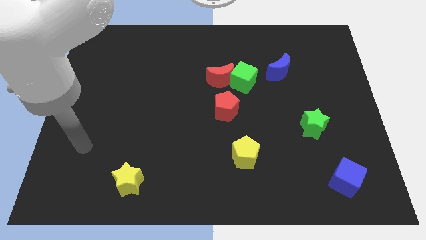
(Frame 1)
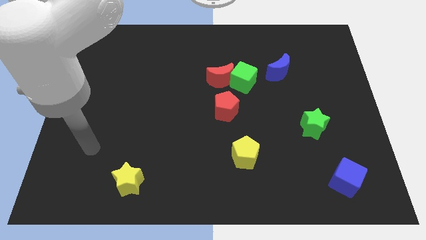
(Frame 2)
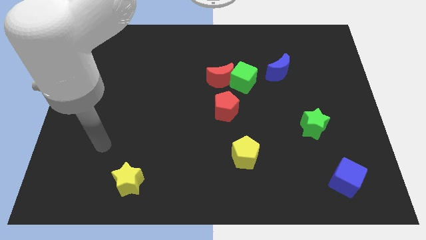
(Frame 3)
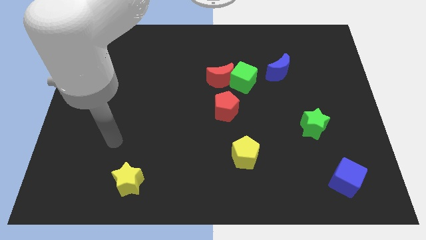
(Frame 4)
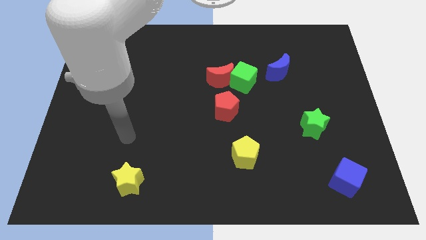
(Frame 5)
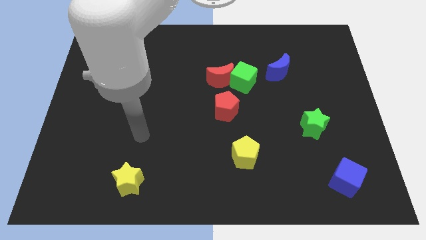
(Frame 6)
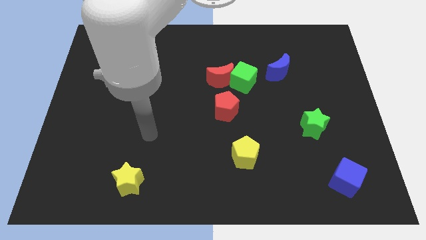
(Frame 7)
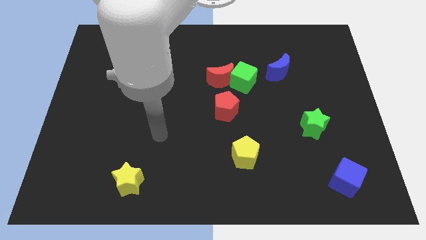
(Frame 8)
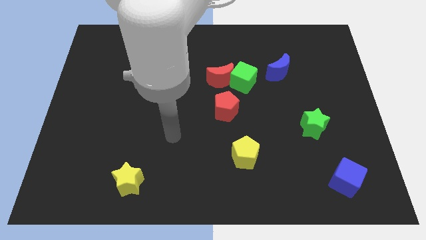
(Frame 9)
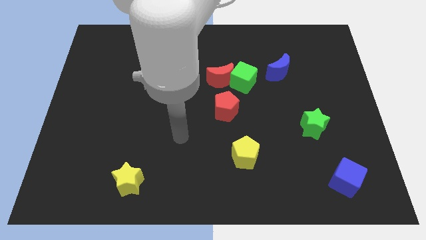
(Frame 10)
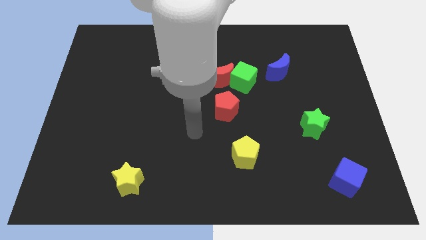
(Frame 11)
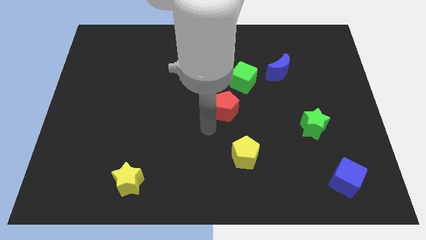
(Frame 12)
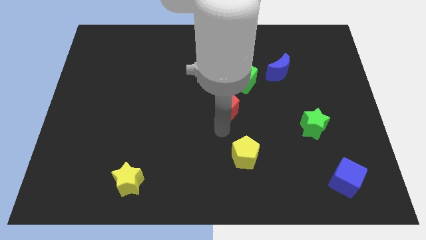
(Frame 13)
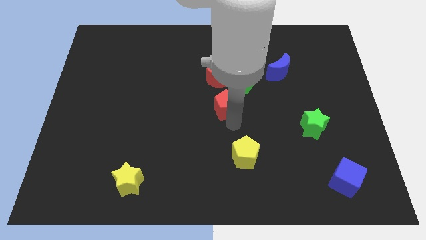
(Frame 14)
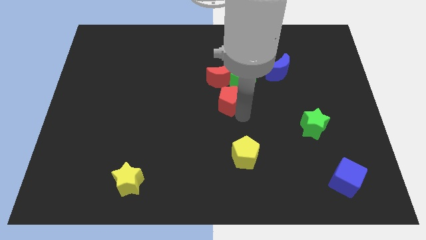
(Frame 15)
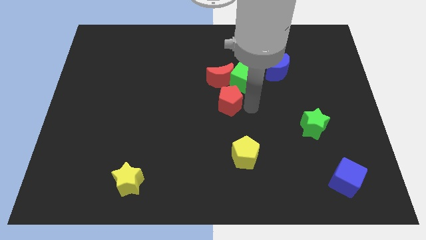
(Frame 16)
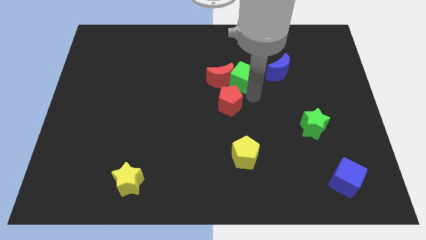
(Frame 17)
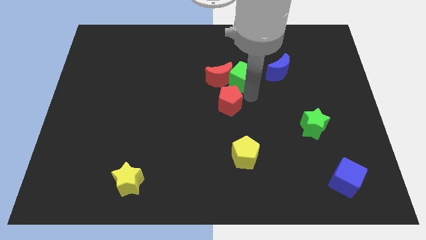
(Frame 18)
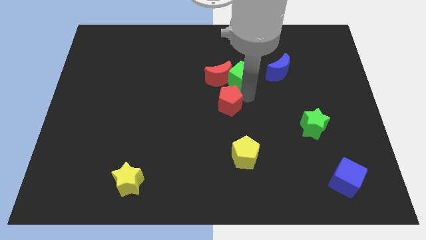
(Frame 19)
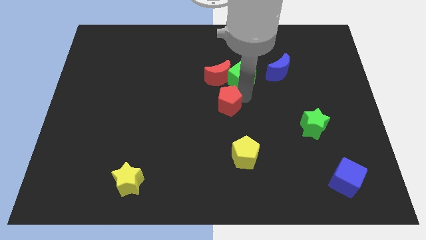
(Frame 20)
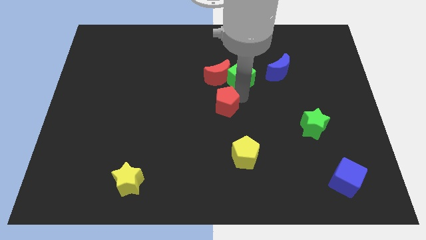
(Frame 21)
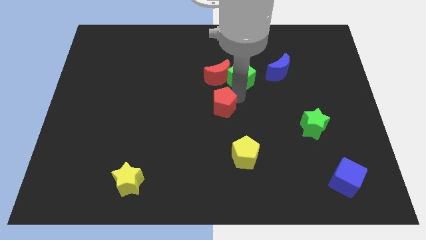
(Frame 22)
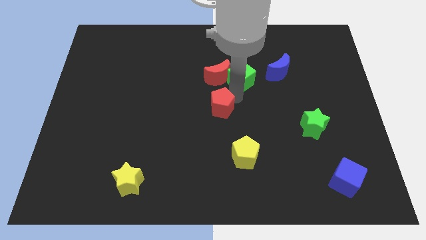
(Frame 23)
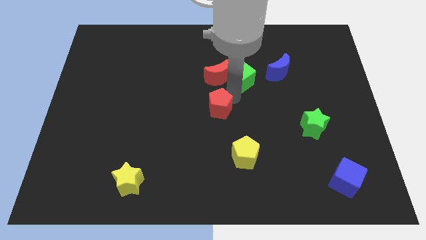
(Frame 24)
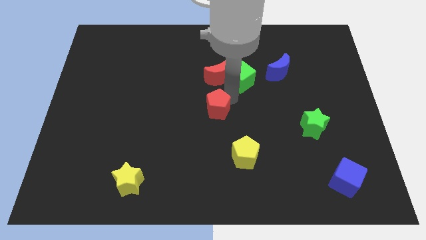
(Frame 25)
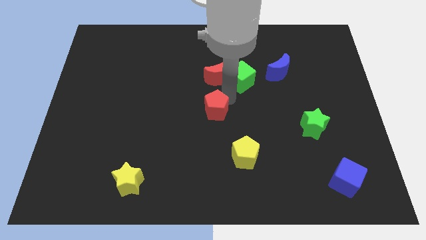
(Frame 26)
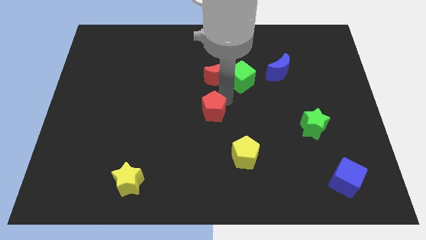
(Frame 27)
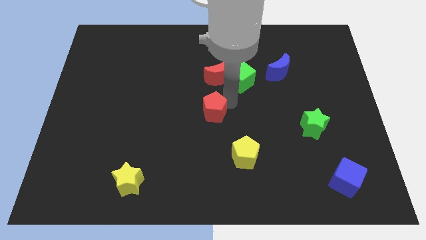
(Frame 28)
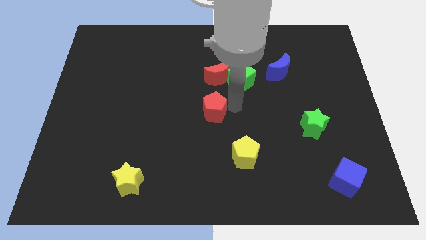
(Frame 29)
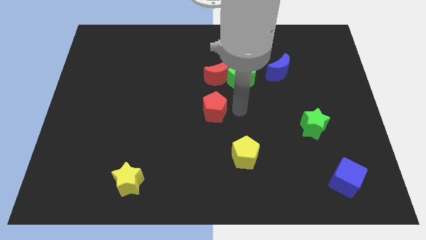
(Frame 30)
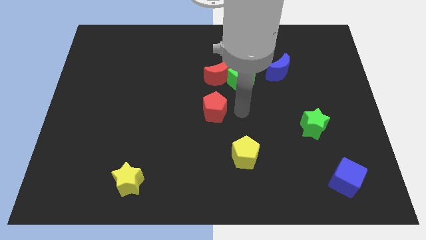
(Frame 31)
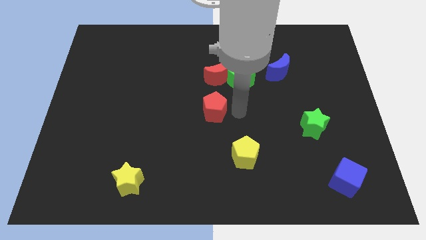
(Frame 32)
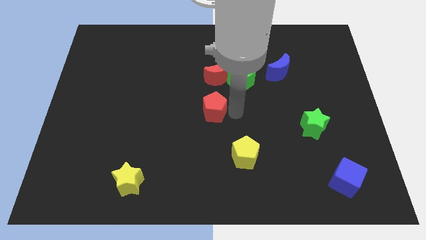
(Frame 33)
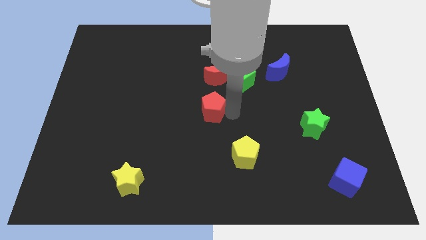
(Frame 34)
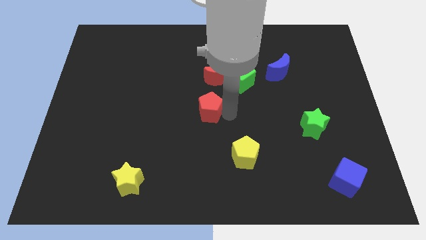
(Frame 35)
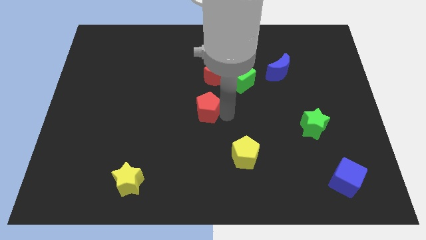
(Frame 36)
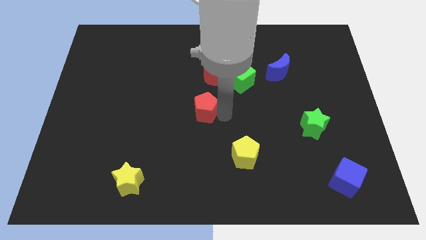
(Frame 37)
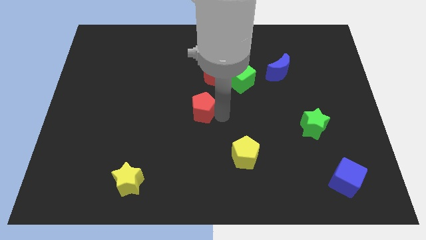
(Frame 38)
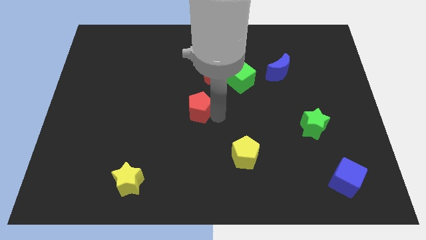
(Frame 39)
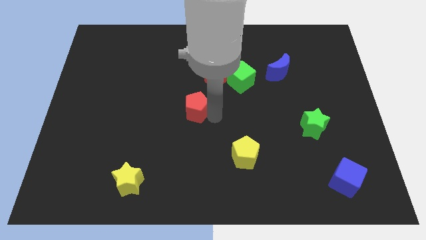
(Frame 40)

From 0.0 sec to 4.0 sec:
slightly move the red pentagon to the left

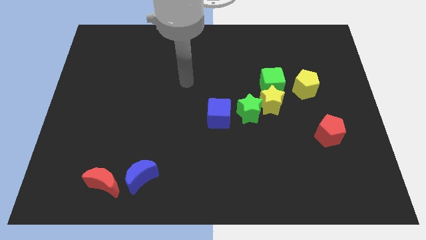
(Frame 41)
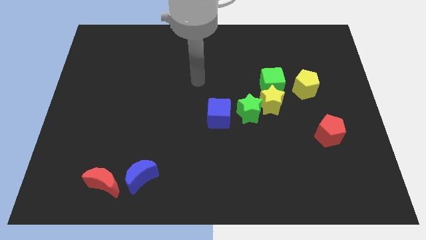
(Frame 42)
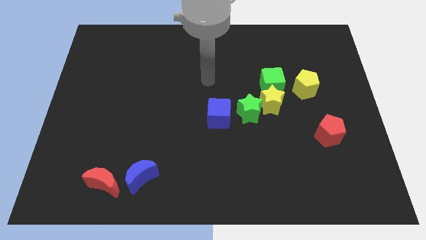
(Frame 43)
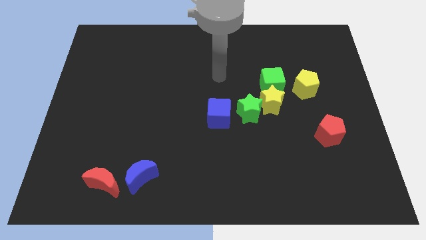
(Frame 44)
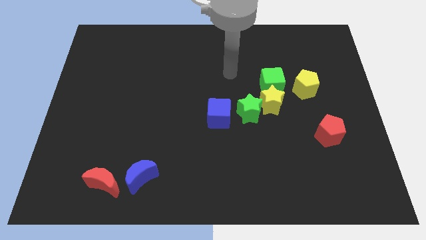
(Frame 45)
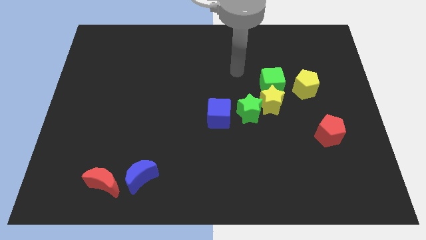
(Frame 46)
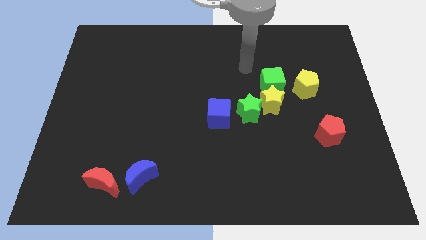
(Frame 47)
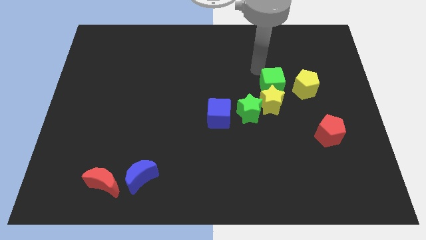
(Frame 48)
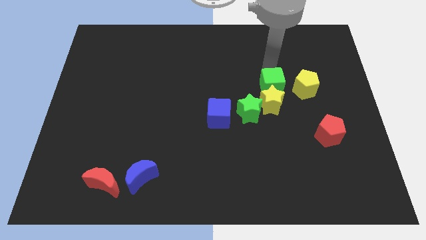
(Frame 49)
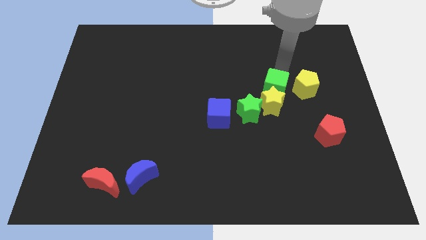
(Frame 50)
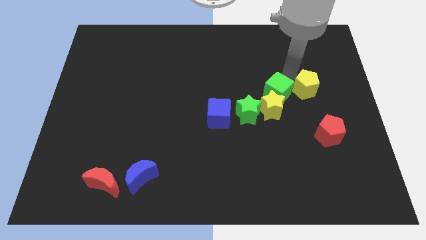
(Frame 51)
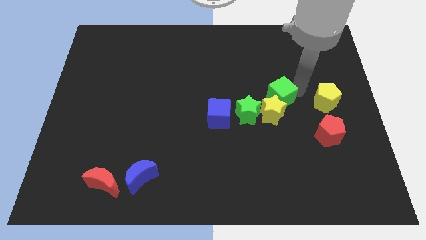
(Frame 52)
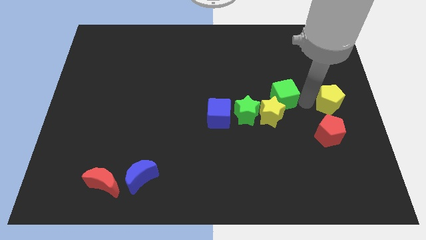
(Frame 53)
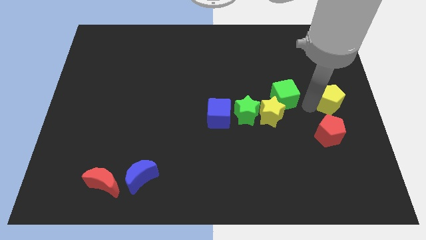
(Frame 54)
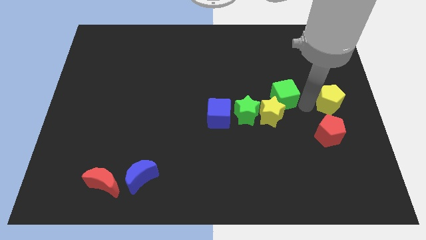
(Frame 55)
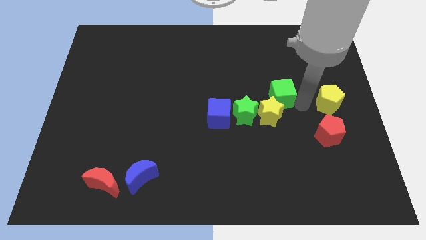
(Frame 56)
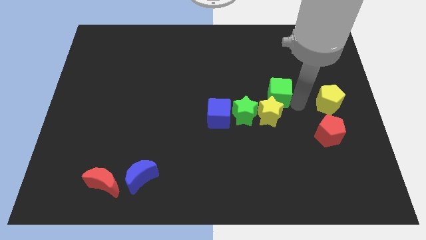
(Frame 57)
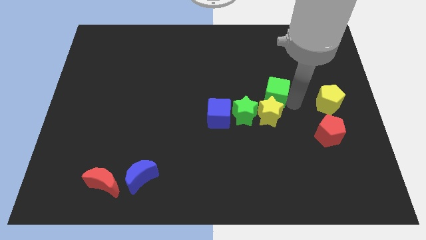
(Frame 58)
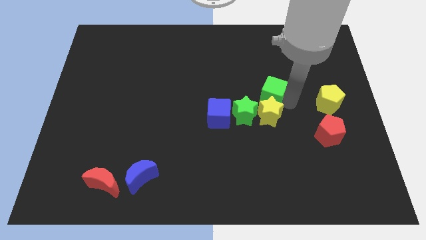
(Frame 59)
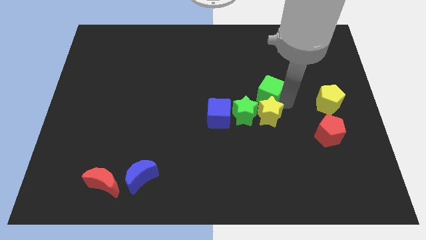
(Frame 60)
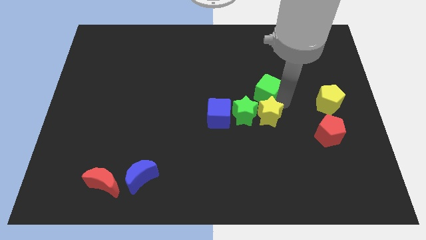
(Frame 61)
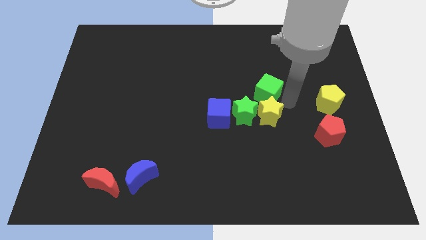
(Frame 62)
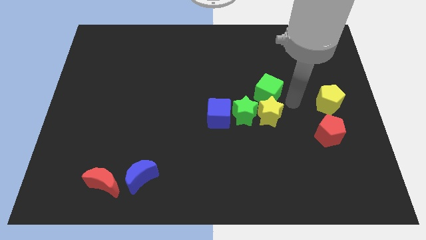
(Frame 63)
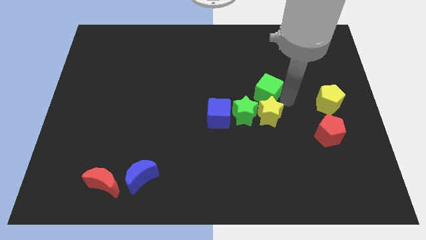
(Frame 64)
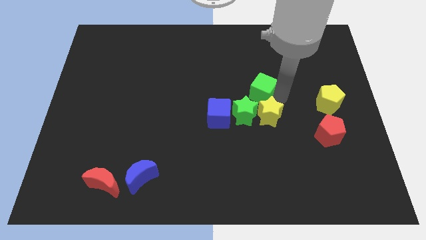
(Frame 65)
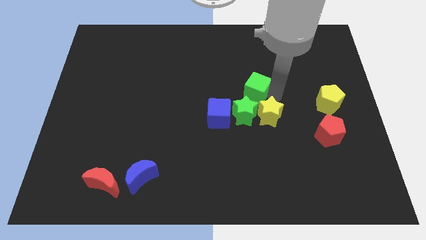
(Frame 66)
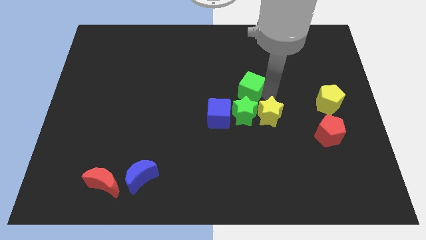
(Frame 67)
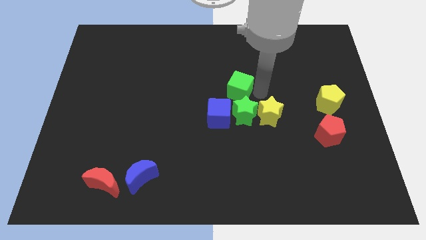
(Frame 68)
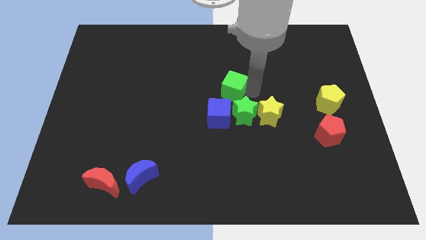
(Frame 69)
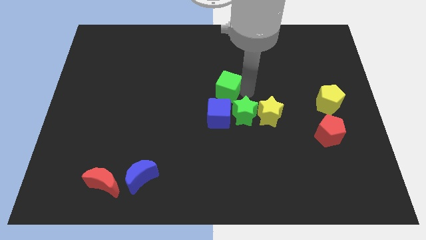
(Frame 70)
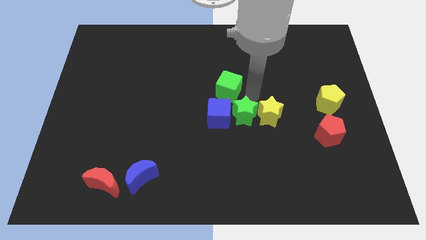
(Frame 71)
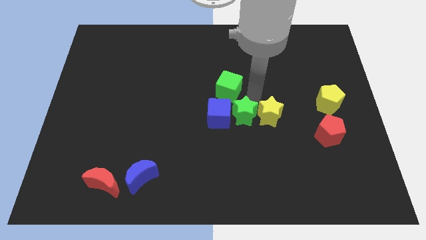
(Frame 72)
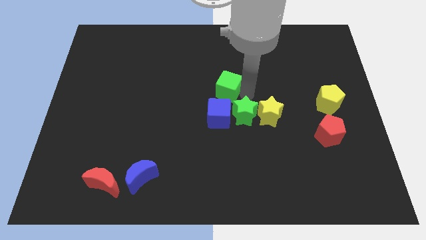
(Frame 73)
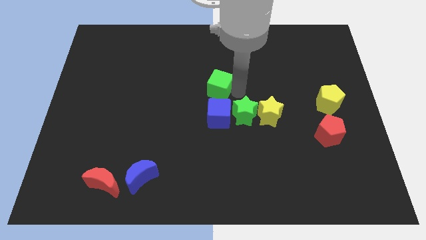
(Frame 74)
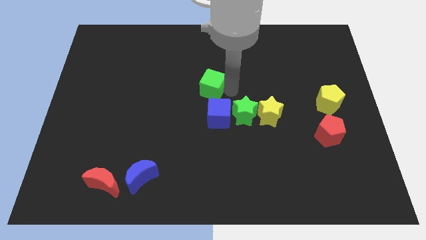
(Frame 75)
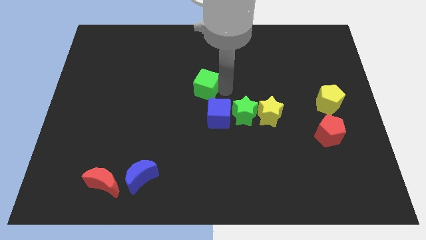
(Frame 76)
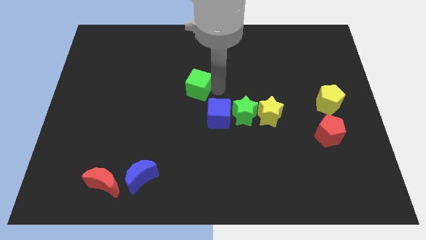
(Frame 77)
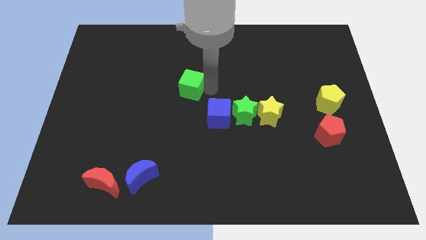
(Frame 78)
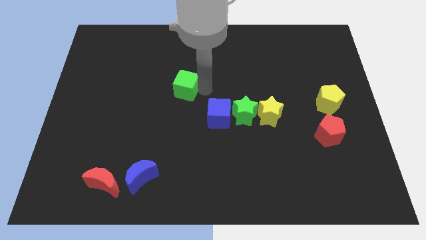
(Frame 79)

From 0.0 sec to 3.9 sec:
move the green cube to the left
